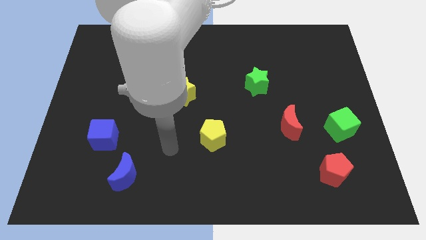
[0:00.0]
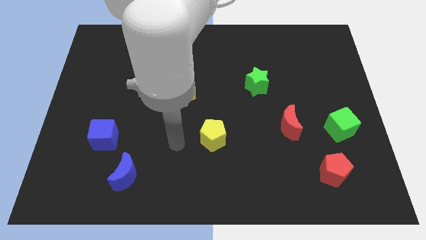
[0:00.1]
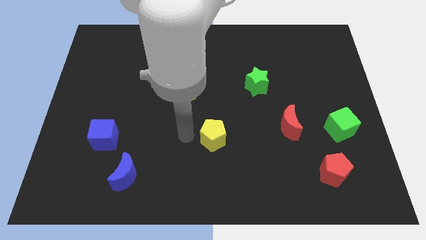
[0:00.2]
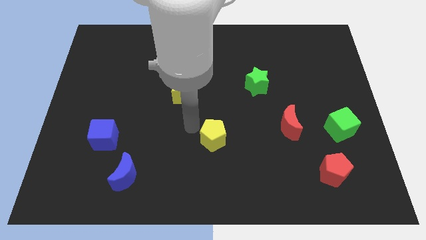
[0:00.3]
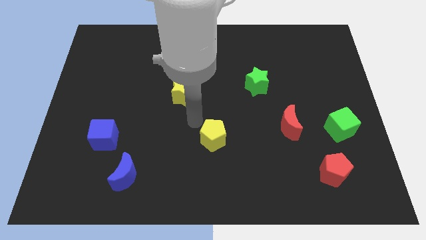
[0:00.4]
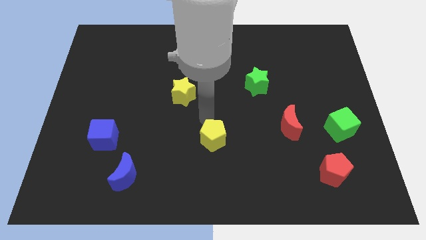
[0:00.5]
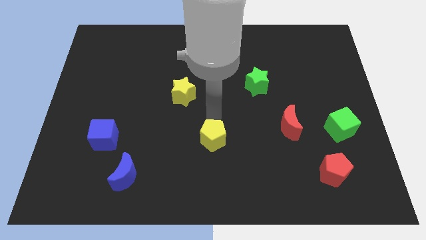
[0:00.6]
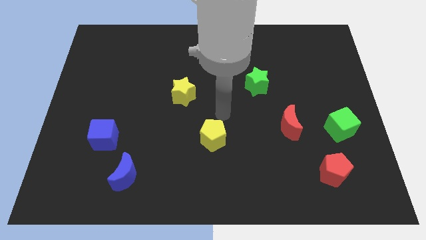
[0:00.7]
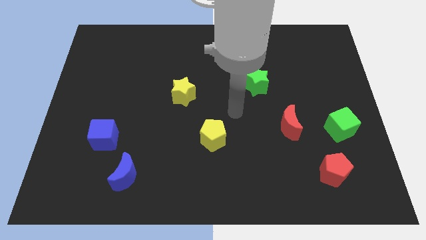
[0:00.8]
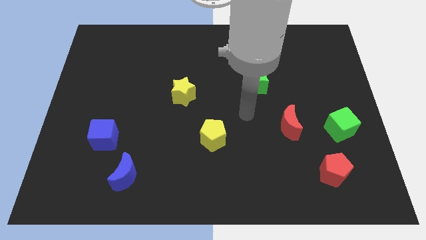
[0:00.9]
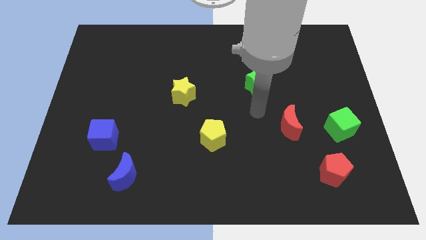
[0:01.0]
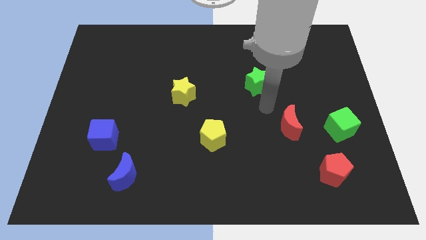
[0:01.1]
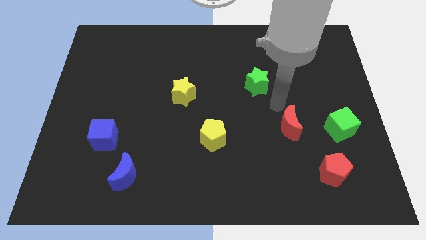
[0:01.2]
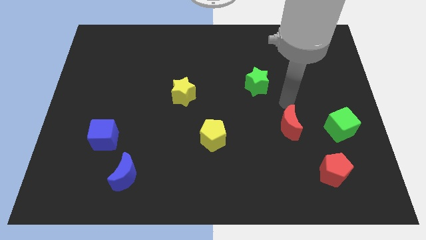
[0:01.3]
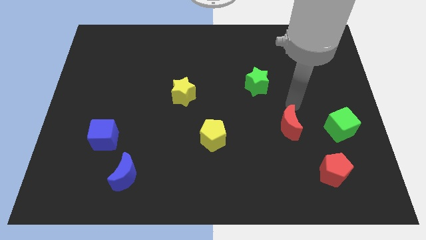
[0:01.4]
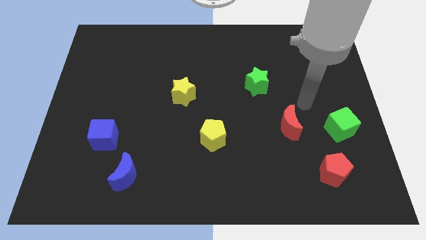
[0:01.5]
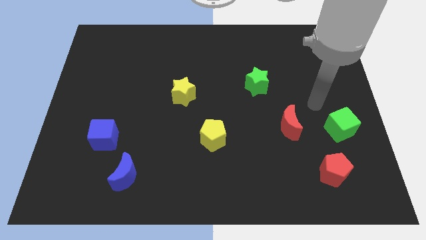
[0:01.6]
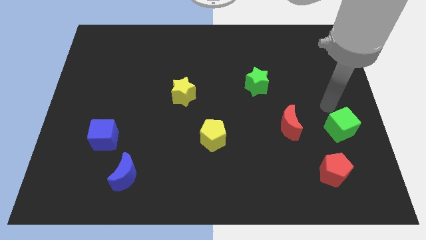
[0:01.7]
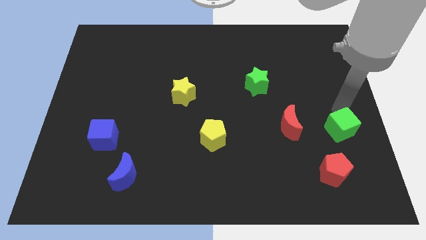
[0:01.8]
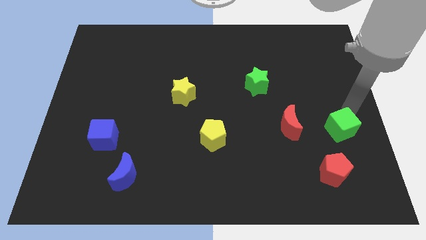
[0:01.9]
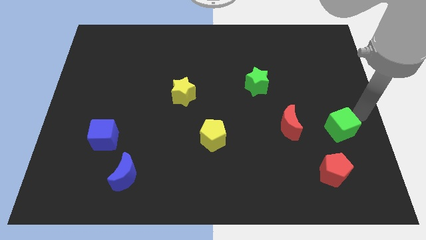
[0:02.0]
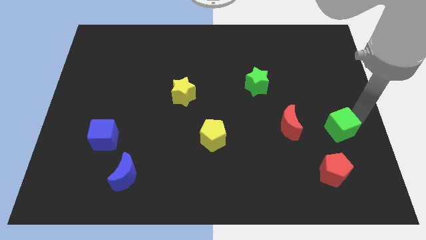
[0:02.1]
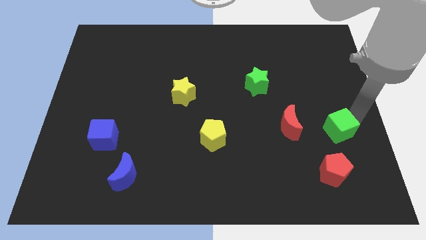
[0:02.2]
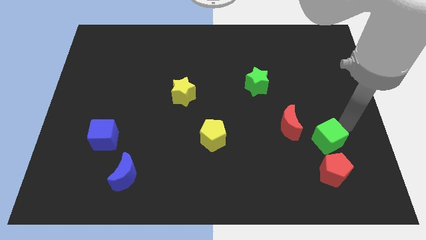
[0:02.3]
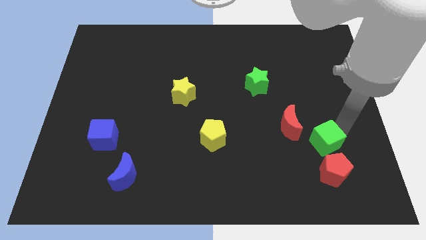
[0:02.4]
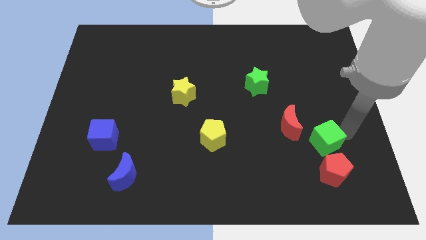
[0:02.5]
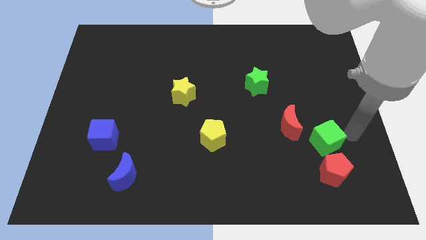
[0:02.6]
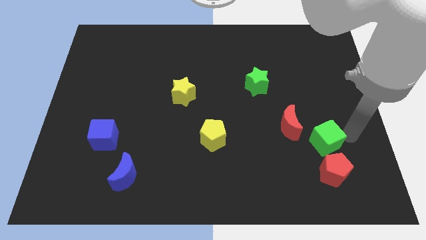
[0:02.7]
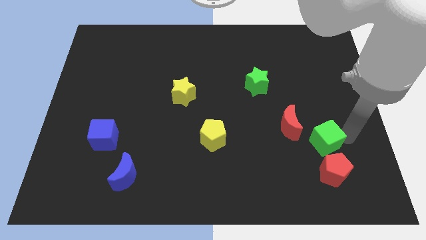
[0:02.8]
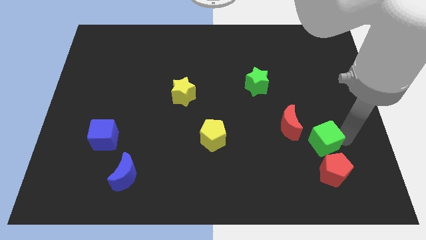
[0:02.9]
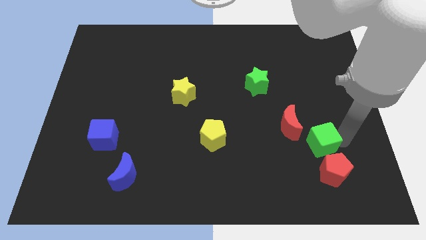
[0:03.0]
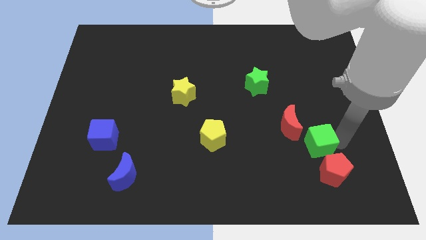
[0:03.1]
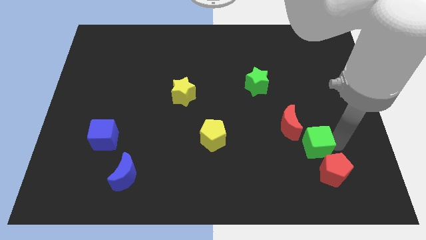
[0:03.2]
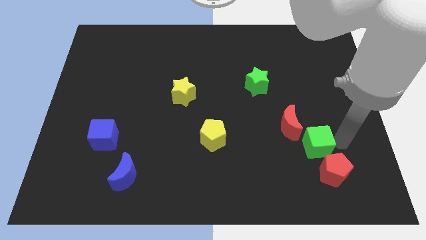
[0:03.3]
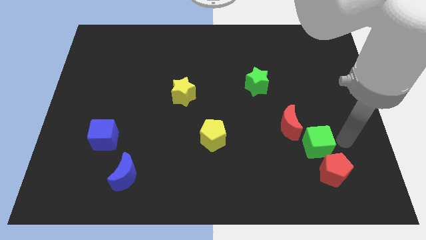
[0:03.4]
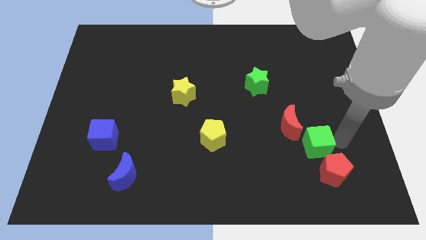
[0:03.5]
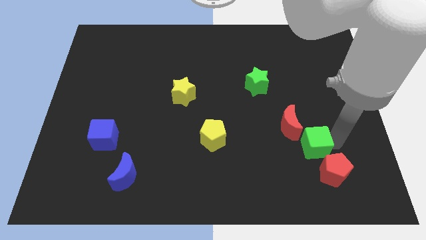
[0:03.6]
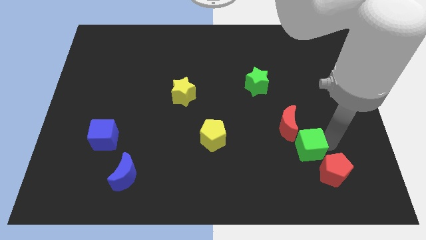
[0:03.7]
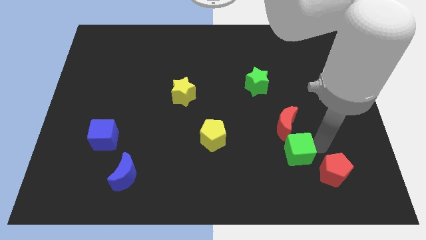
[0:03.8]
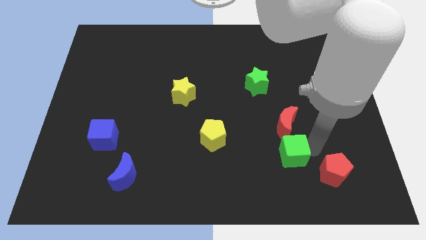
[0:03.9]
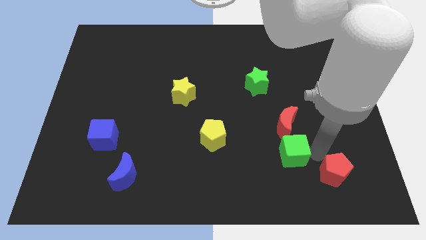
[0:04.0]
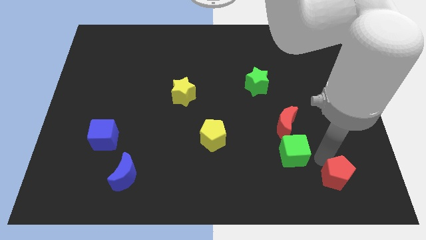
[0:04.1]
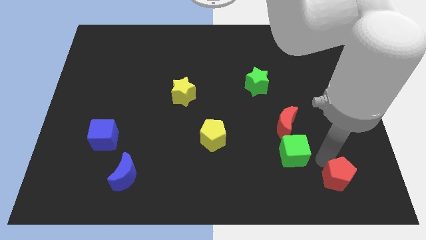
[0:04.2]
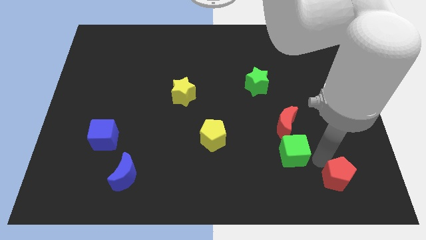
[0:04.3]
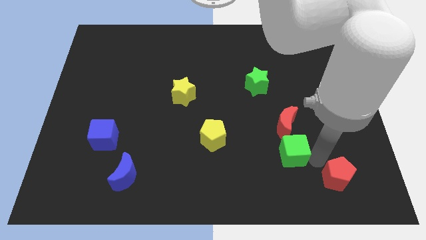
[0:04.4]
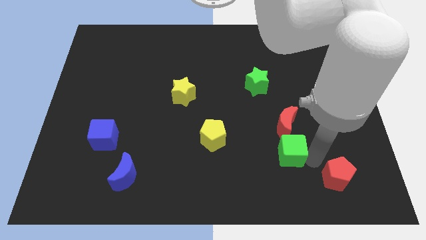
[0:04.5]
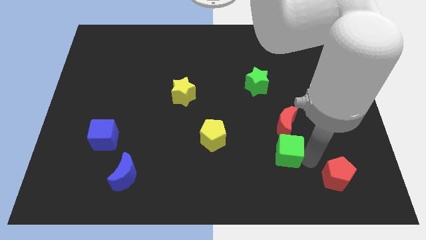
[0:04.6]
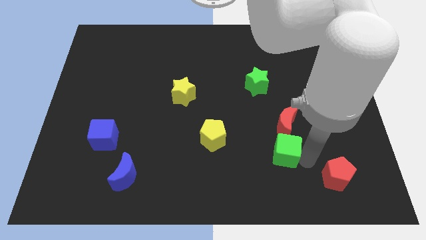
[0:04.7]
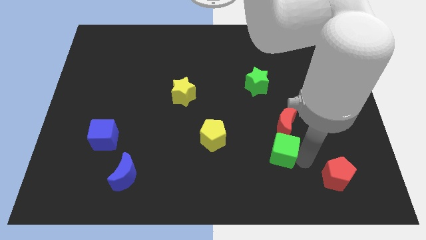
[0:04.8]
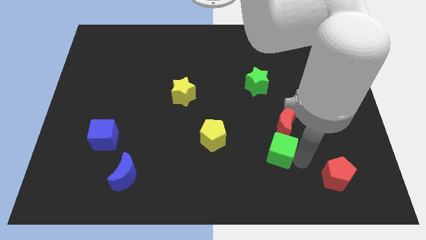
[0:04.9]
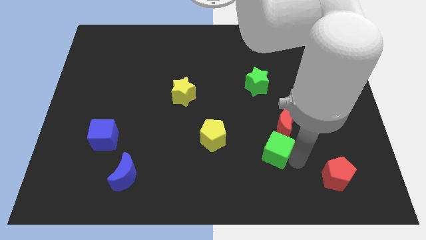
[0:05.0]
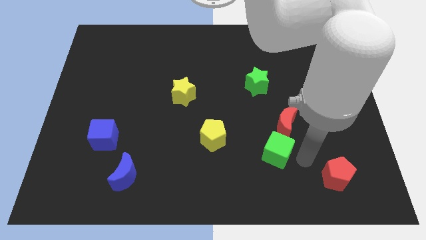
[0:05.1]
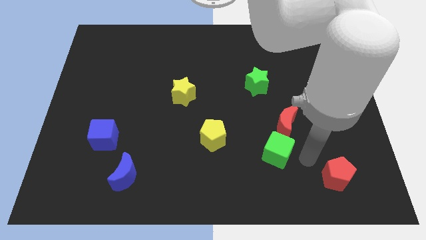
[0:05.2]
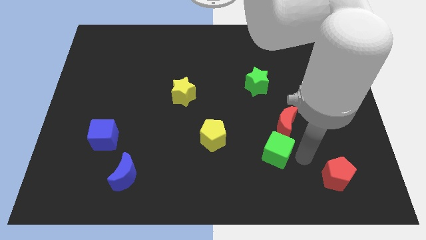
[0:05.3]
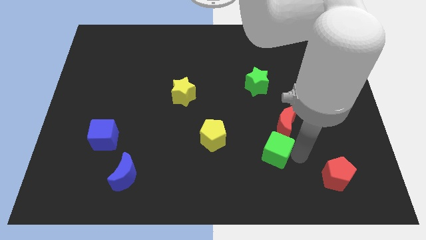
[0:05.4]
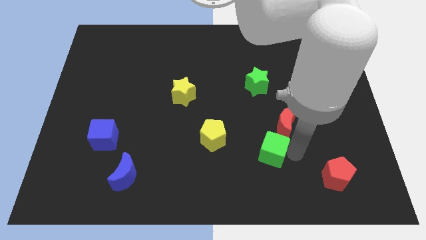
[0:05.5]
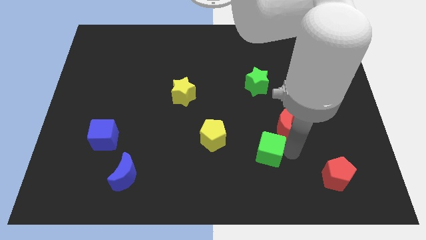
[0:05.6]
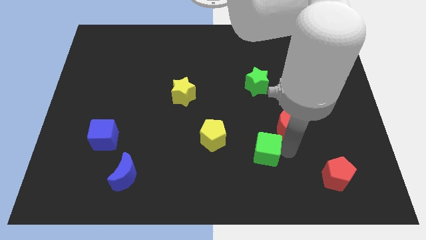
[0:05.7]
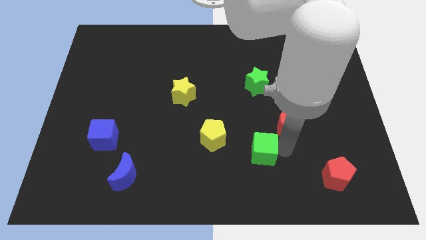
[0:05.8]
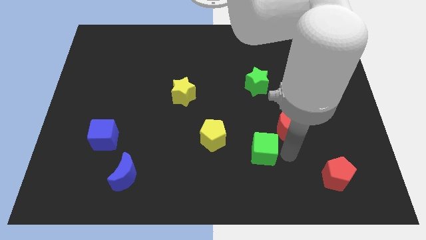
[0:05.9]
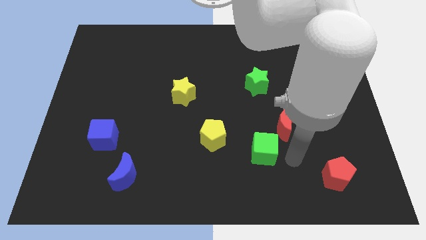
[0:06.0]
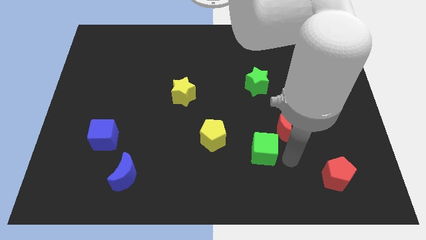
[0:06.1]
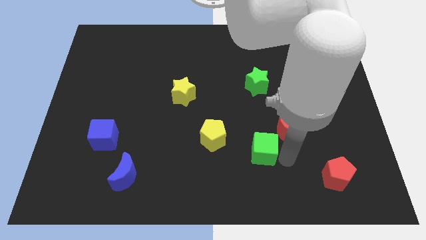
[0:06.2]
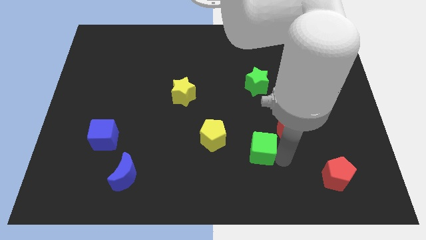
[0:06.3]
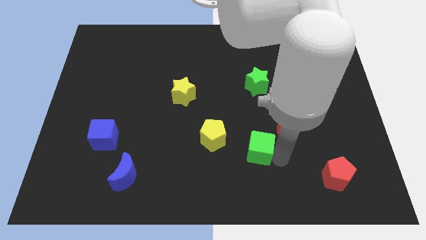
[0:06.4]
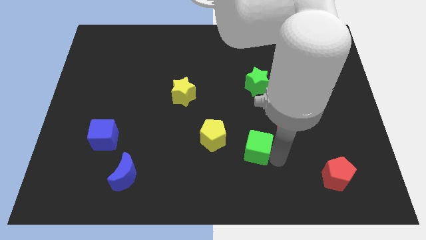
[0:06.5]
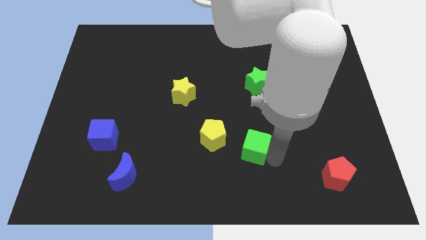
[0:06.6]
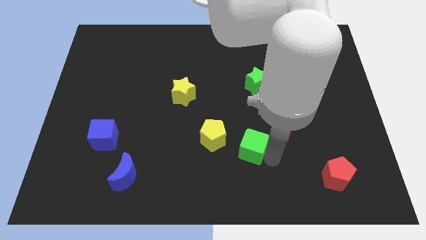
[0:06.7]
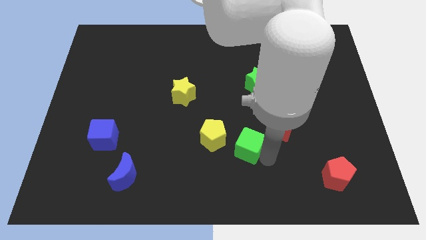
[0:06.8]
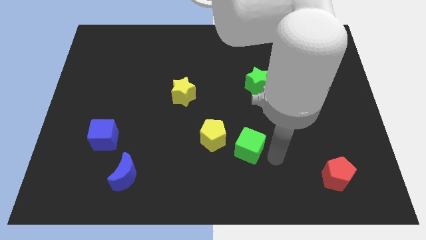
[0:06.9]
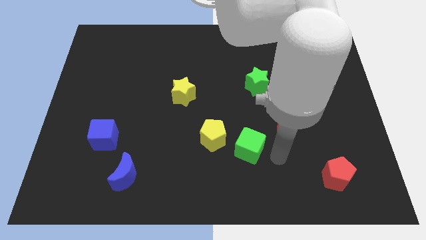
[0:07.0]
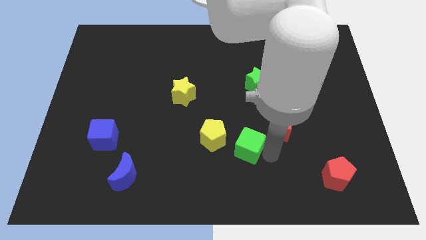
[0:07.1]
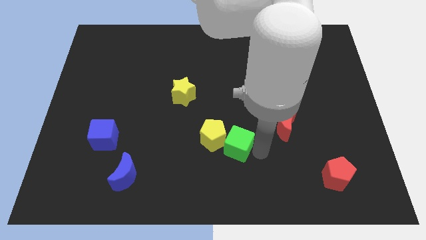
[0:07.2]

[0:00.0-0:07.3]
put the green cube to the yellow pentagon
